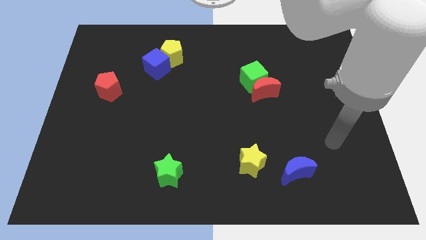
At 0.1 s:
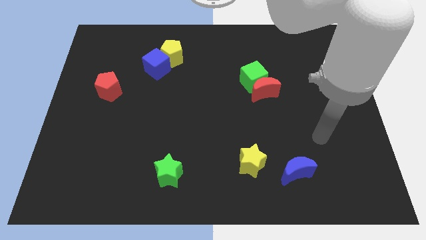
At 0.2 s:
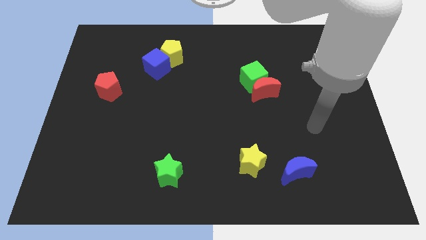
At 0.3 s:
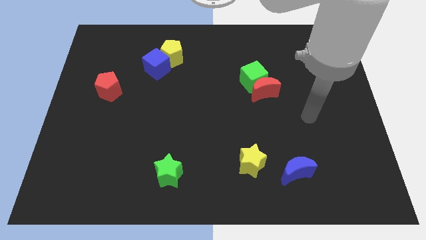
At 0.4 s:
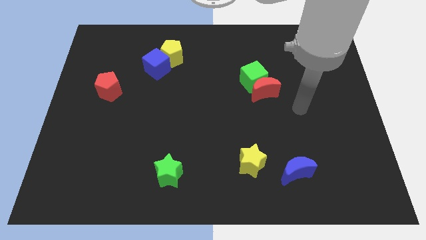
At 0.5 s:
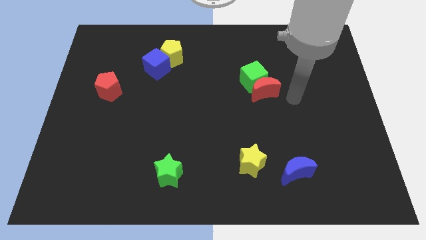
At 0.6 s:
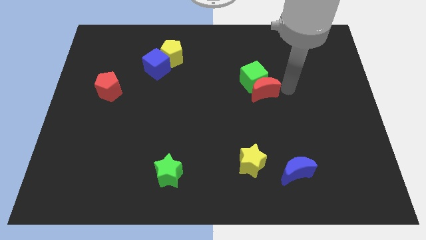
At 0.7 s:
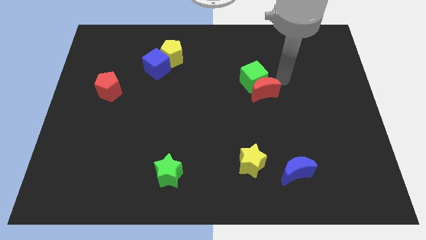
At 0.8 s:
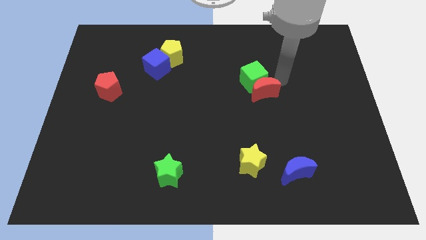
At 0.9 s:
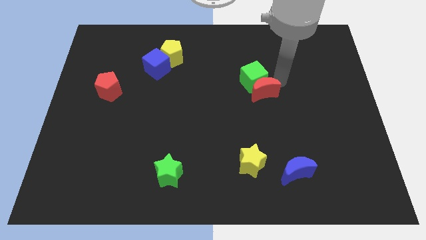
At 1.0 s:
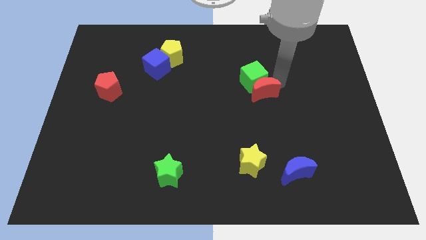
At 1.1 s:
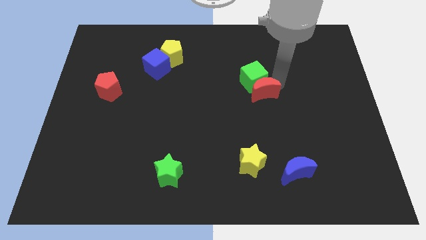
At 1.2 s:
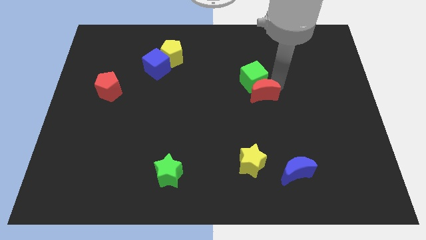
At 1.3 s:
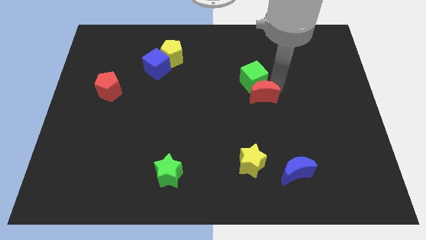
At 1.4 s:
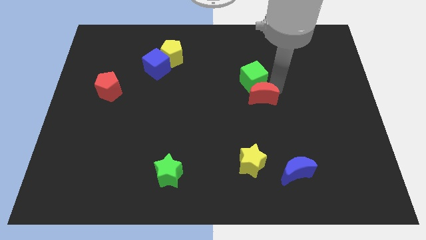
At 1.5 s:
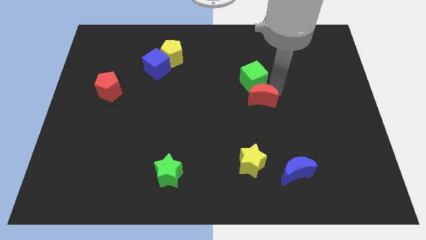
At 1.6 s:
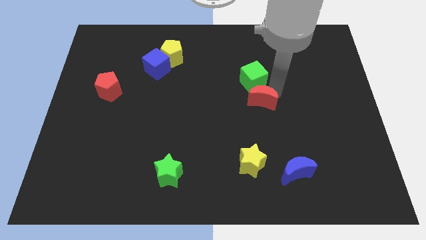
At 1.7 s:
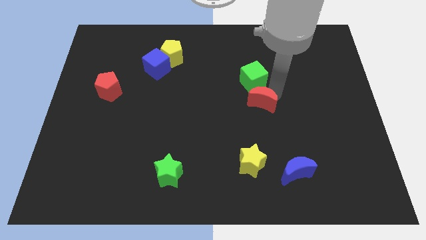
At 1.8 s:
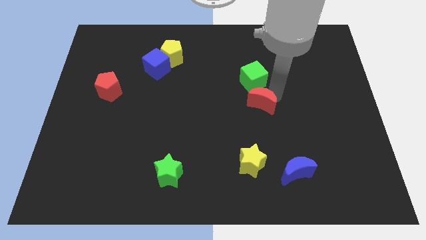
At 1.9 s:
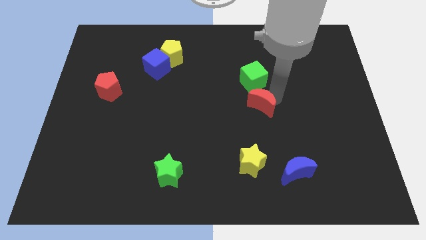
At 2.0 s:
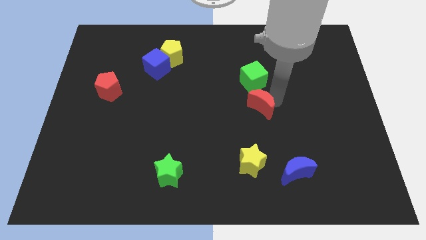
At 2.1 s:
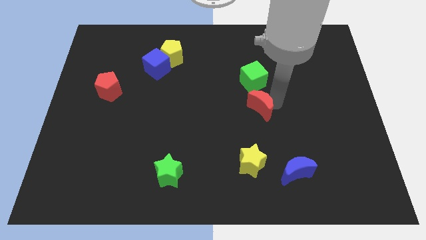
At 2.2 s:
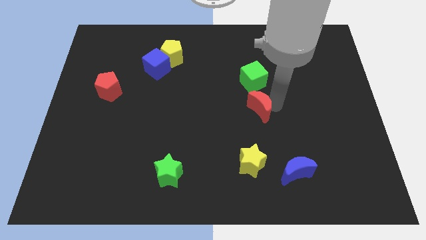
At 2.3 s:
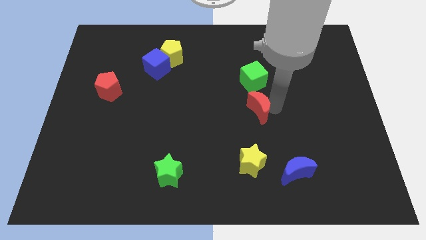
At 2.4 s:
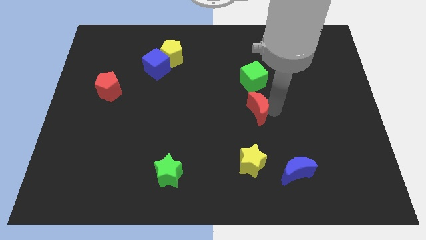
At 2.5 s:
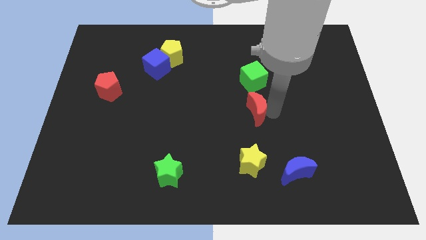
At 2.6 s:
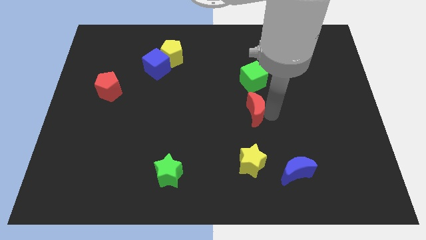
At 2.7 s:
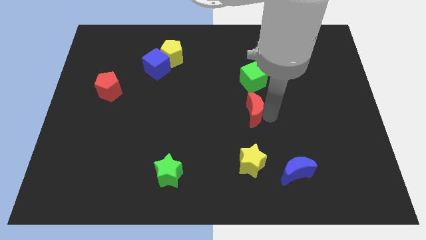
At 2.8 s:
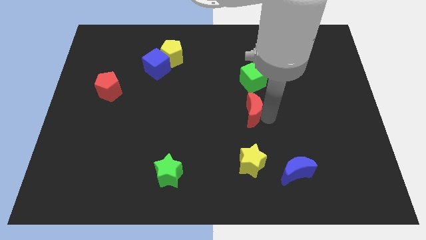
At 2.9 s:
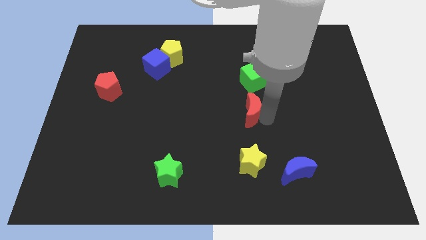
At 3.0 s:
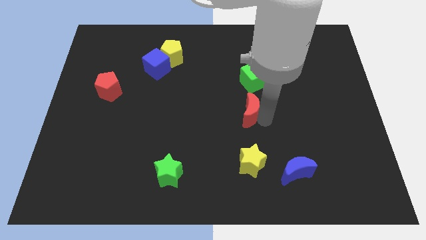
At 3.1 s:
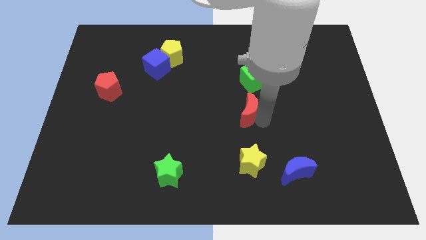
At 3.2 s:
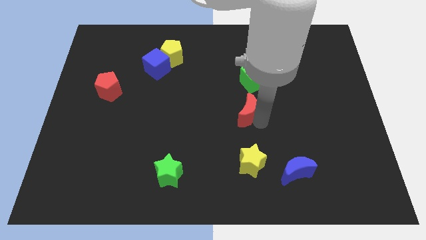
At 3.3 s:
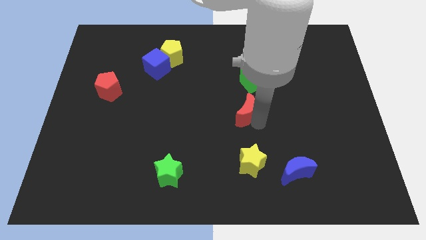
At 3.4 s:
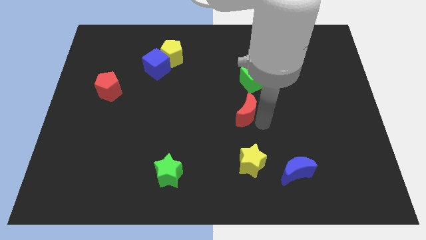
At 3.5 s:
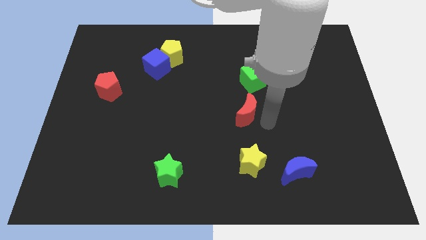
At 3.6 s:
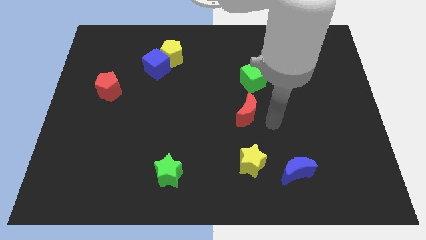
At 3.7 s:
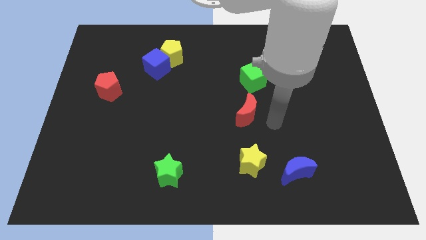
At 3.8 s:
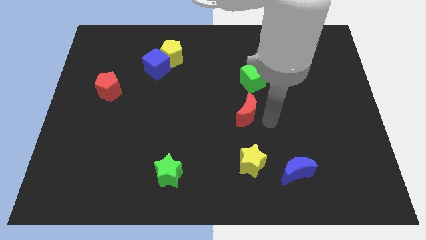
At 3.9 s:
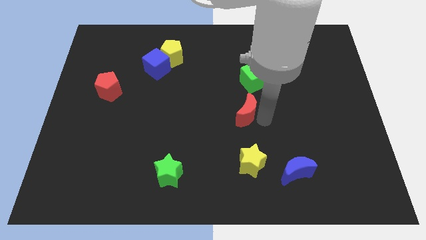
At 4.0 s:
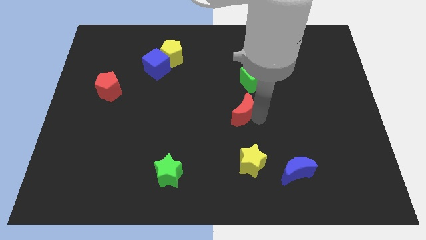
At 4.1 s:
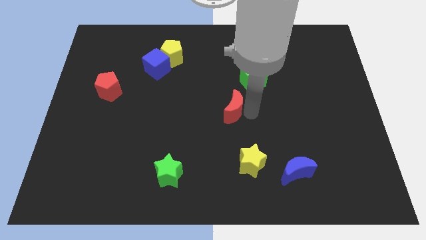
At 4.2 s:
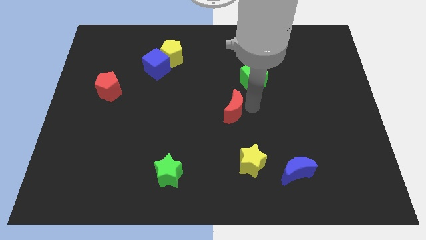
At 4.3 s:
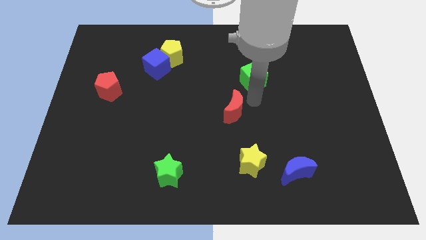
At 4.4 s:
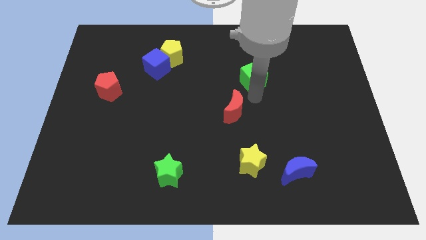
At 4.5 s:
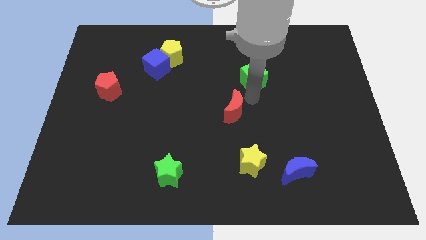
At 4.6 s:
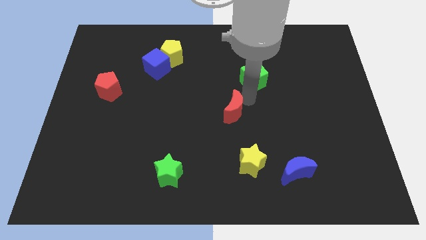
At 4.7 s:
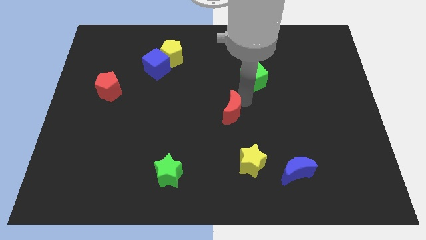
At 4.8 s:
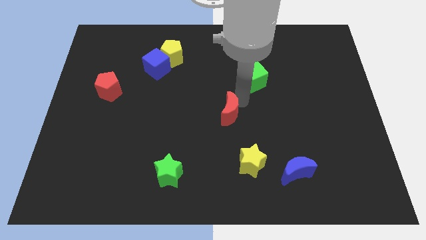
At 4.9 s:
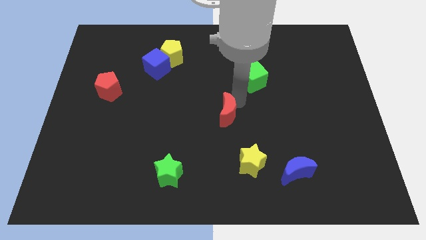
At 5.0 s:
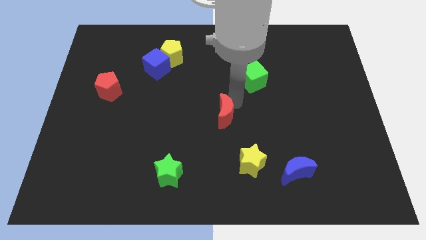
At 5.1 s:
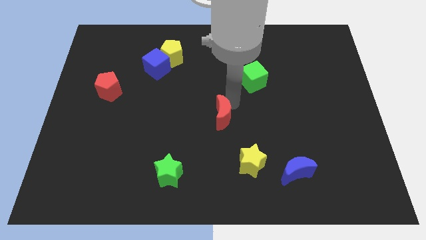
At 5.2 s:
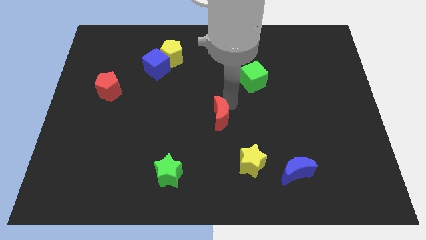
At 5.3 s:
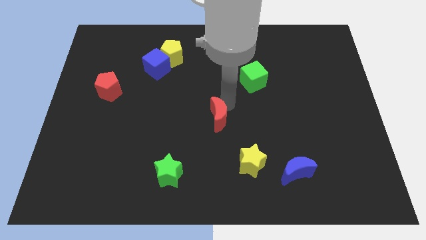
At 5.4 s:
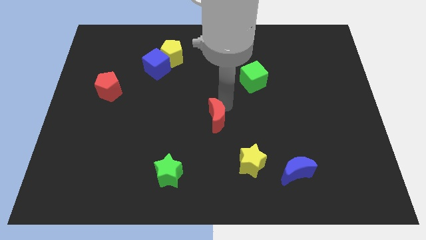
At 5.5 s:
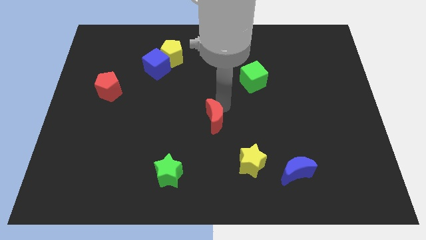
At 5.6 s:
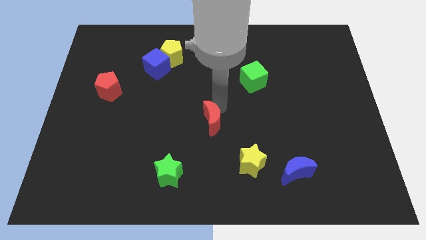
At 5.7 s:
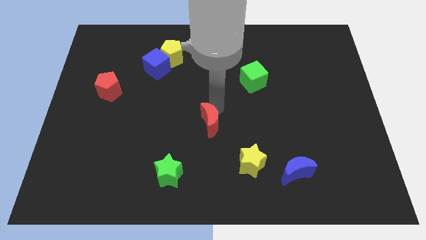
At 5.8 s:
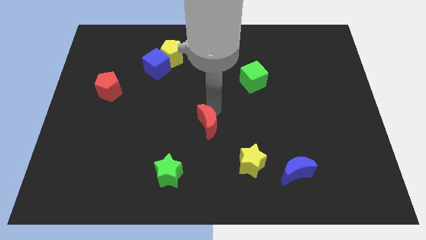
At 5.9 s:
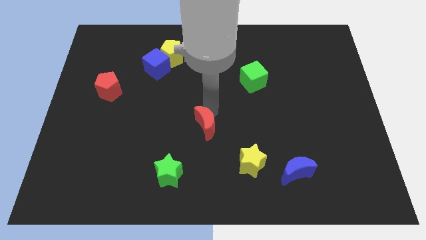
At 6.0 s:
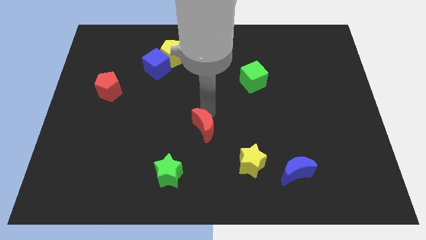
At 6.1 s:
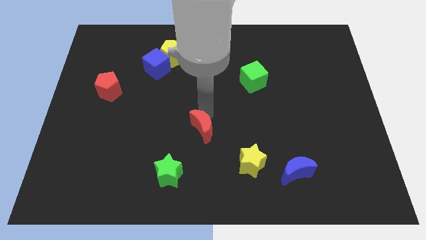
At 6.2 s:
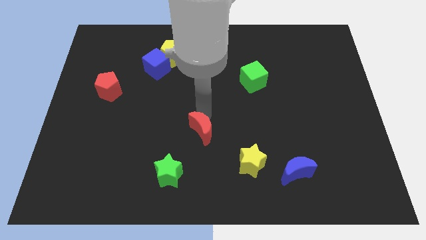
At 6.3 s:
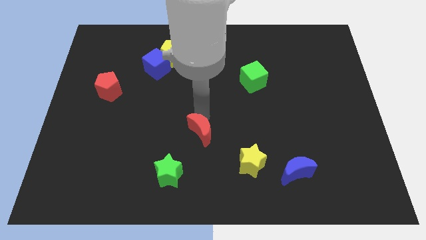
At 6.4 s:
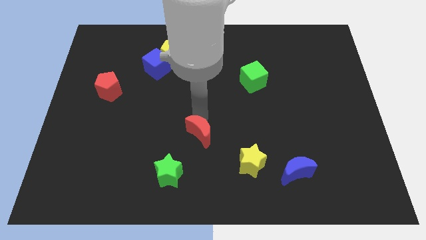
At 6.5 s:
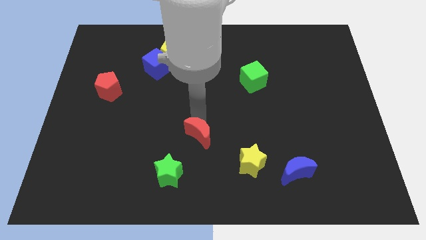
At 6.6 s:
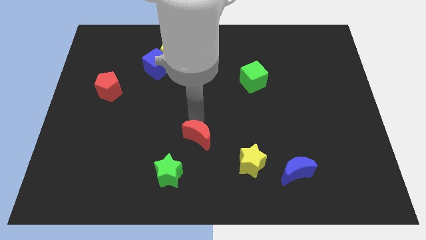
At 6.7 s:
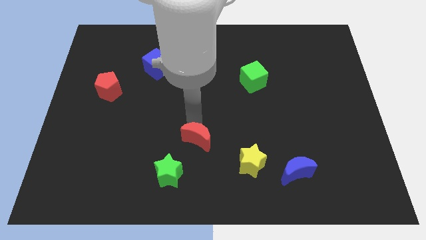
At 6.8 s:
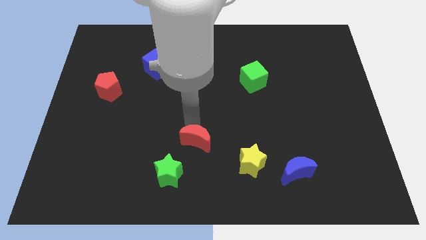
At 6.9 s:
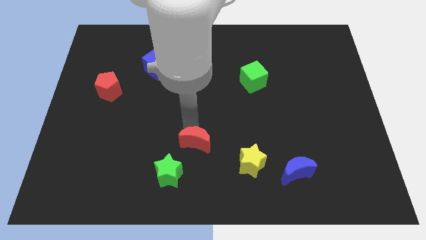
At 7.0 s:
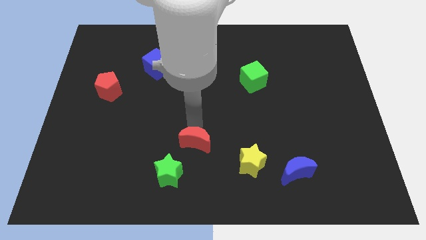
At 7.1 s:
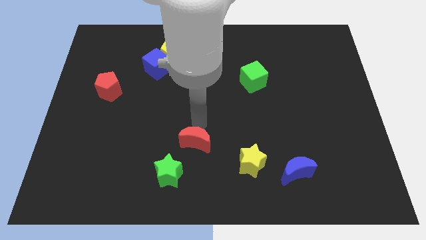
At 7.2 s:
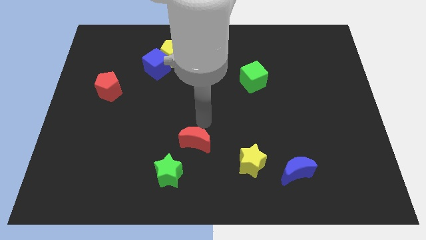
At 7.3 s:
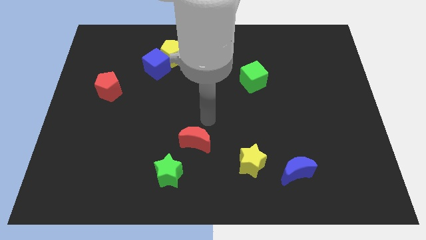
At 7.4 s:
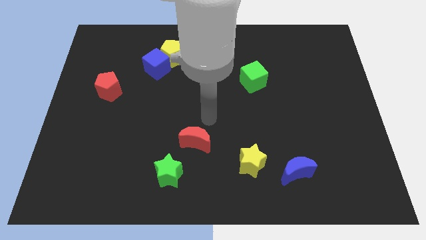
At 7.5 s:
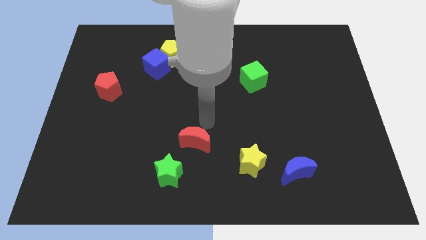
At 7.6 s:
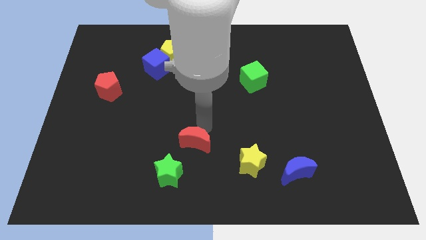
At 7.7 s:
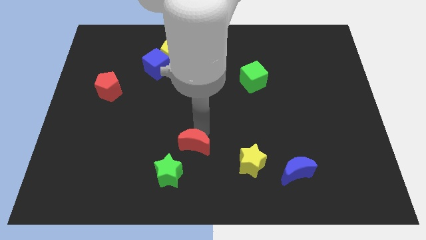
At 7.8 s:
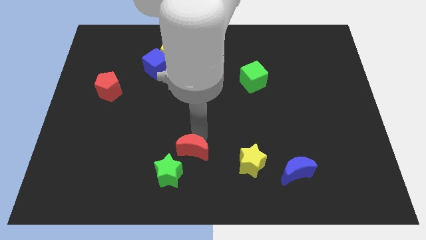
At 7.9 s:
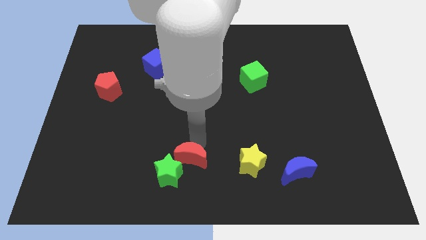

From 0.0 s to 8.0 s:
push the red moon next to the green star
